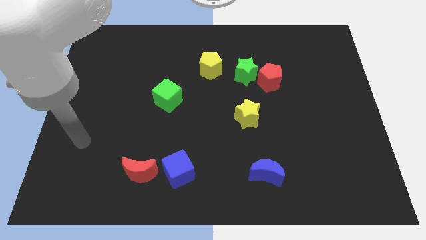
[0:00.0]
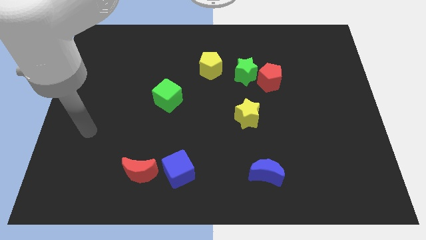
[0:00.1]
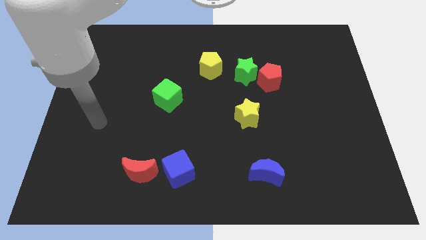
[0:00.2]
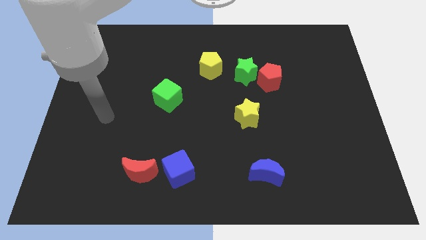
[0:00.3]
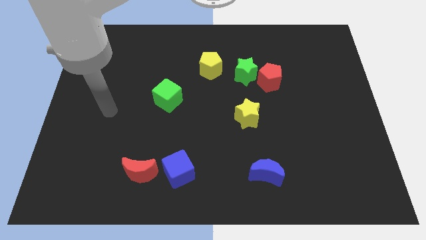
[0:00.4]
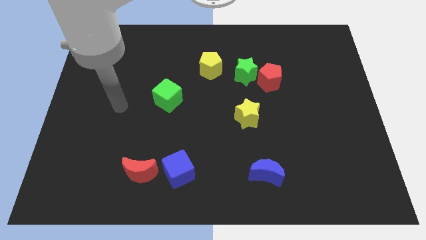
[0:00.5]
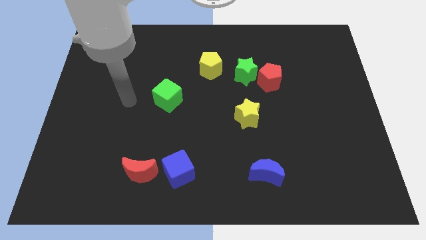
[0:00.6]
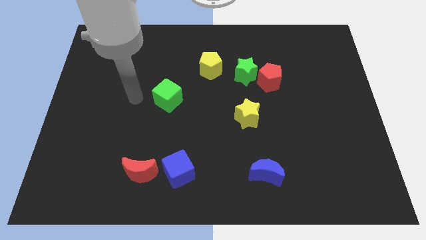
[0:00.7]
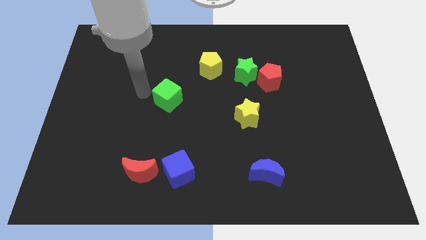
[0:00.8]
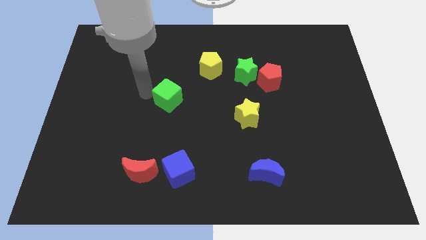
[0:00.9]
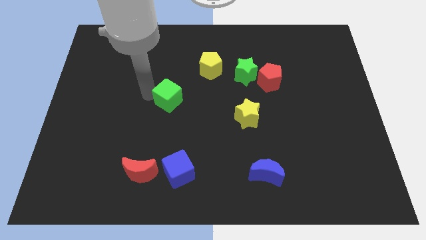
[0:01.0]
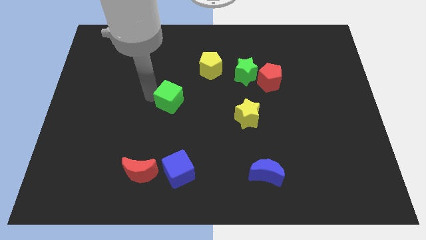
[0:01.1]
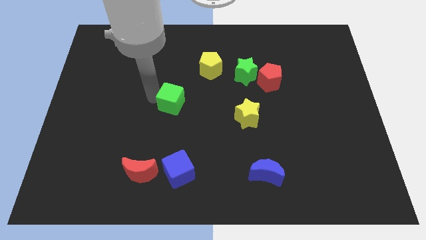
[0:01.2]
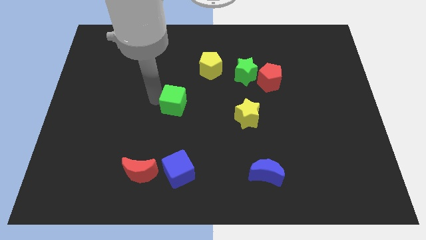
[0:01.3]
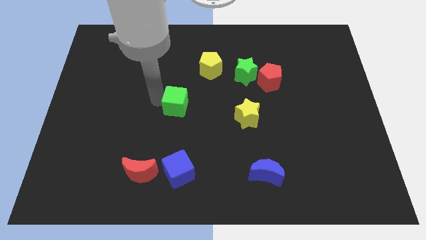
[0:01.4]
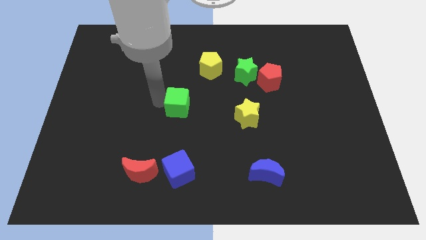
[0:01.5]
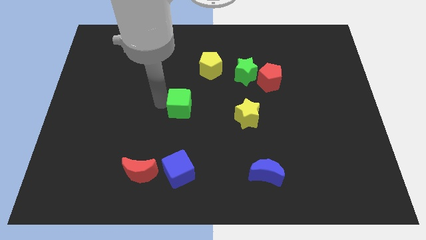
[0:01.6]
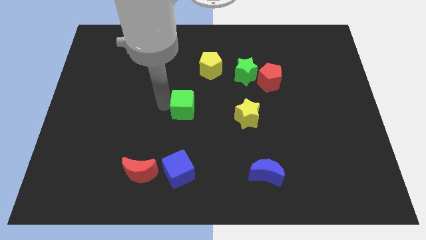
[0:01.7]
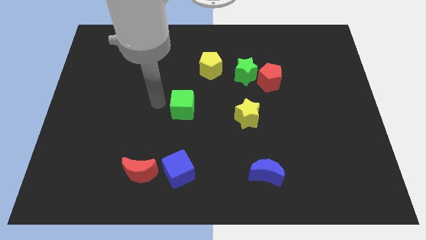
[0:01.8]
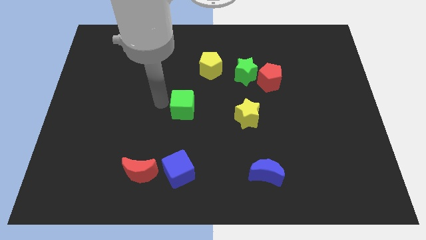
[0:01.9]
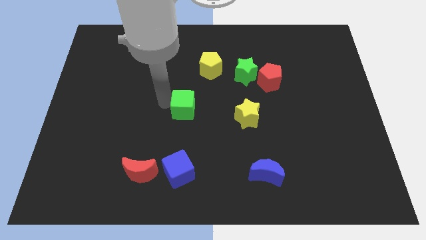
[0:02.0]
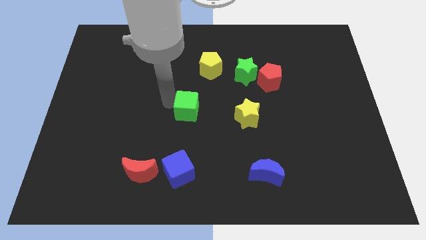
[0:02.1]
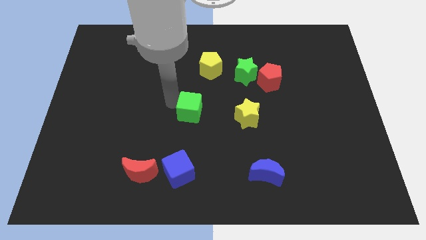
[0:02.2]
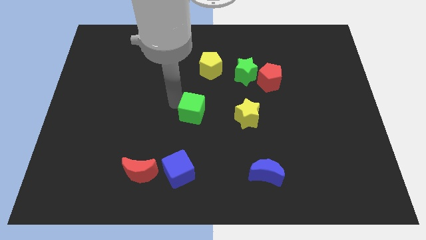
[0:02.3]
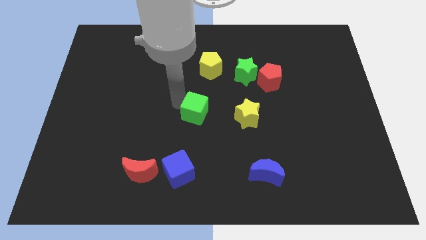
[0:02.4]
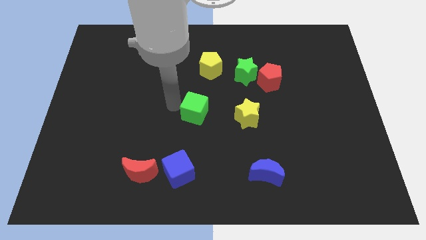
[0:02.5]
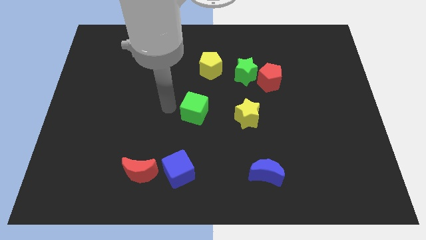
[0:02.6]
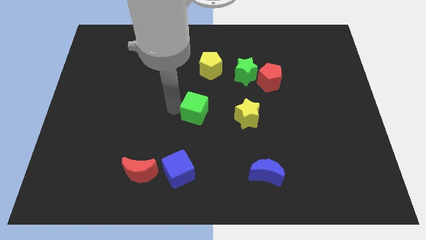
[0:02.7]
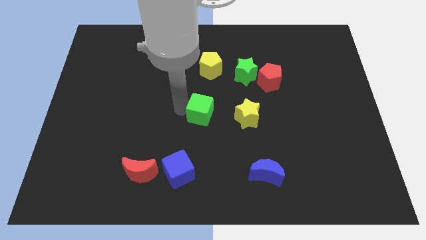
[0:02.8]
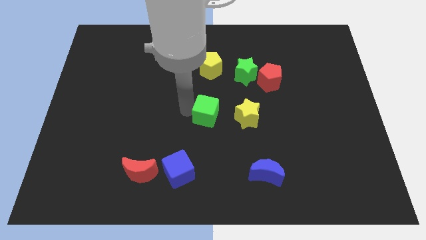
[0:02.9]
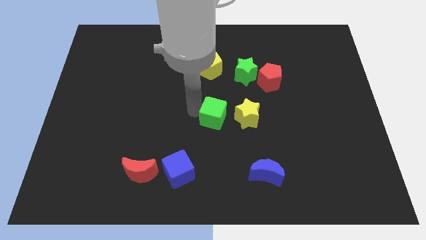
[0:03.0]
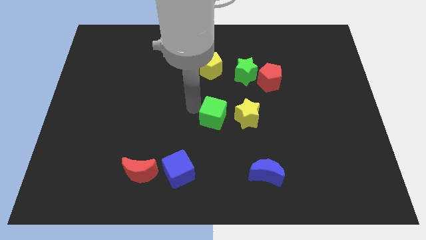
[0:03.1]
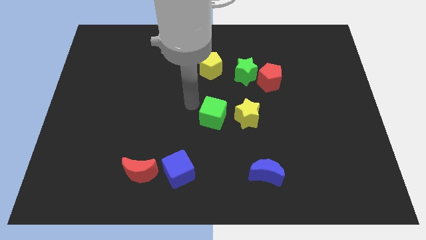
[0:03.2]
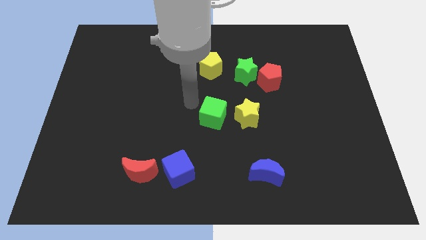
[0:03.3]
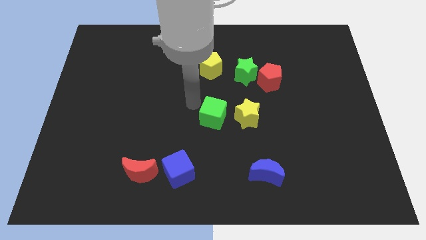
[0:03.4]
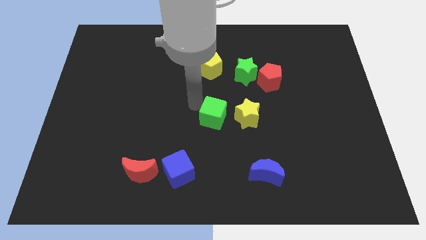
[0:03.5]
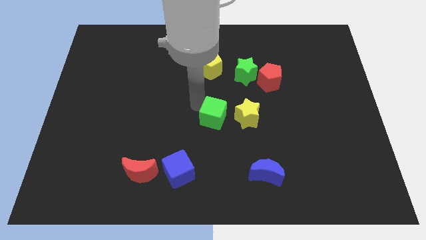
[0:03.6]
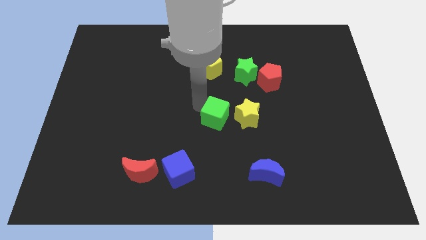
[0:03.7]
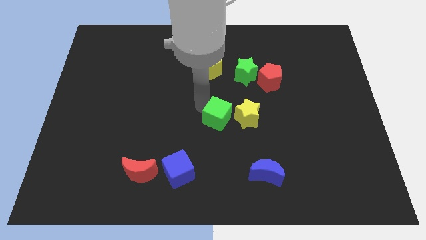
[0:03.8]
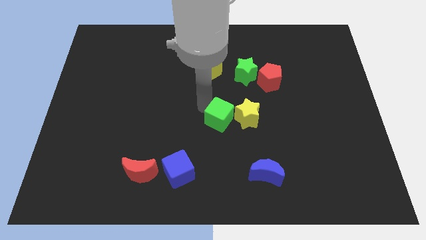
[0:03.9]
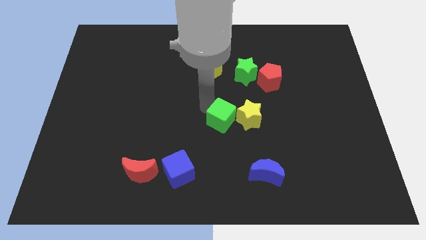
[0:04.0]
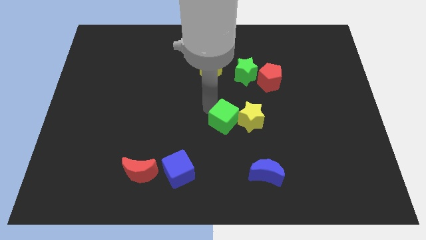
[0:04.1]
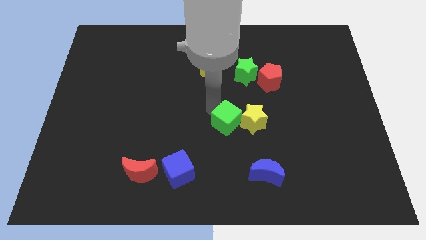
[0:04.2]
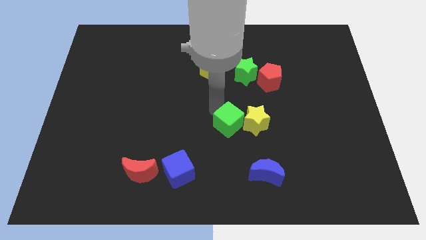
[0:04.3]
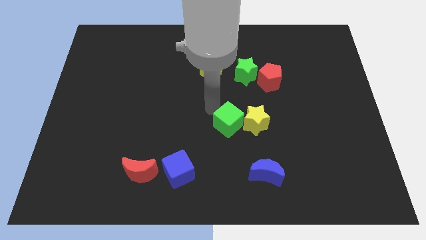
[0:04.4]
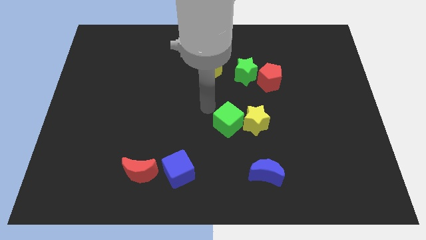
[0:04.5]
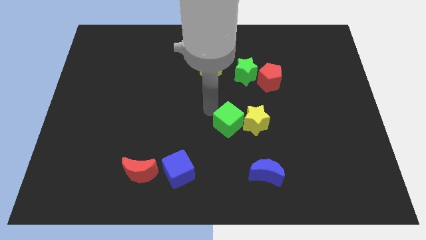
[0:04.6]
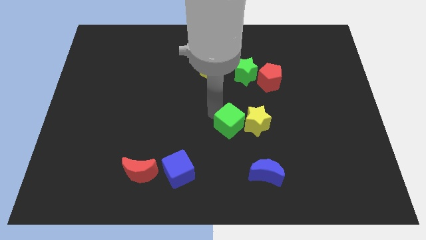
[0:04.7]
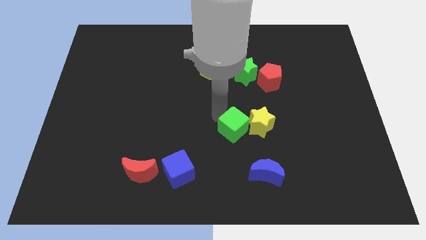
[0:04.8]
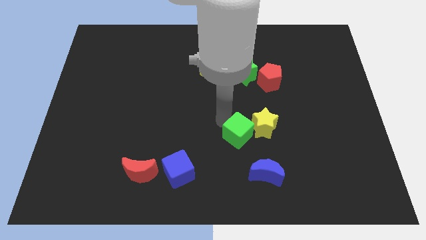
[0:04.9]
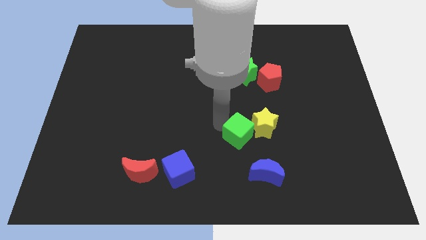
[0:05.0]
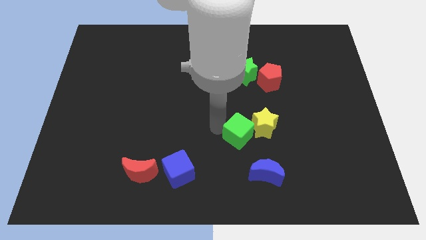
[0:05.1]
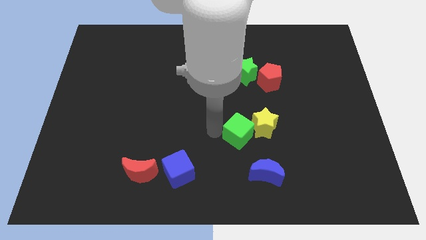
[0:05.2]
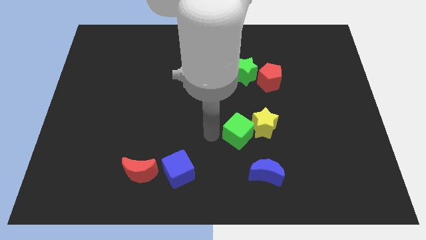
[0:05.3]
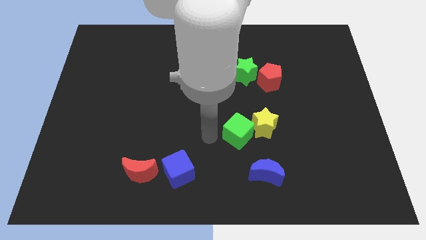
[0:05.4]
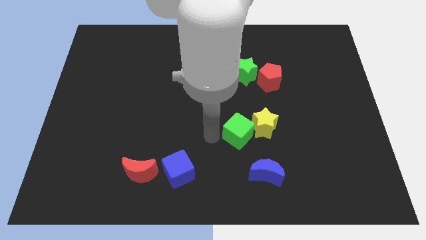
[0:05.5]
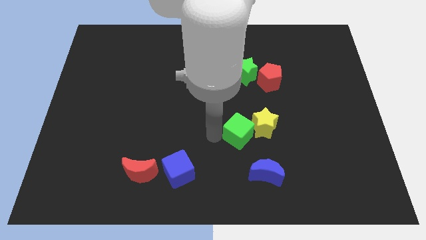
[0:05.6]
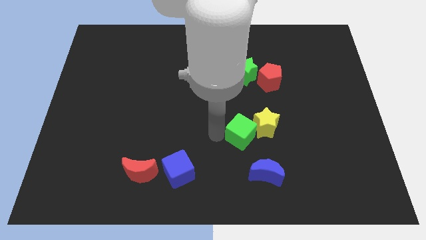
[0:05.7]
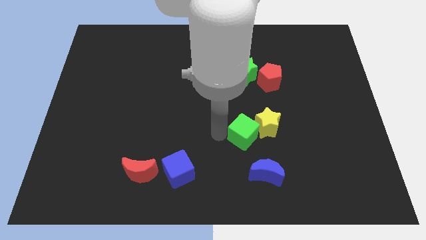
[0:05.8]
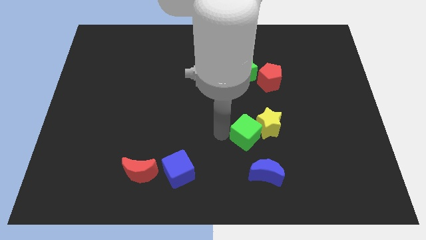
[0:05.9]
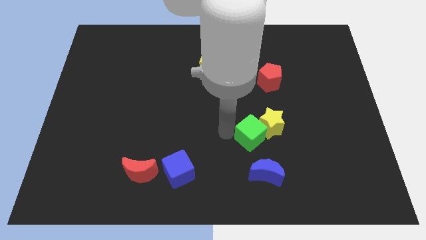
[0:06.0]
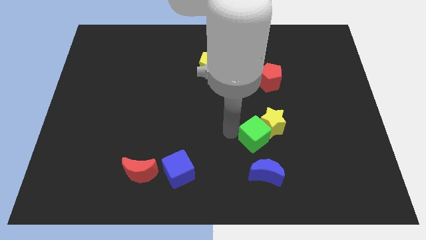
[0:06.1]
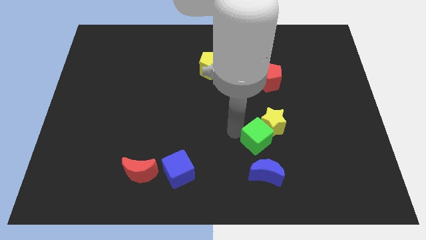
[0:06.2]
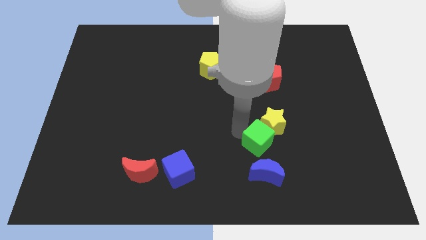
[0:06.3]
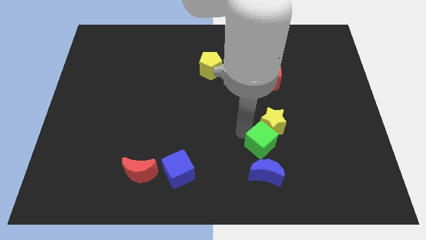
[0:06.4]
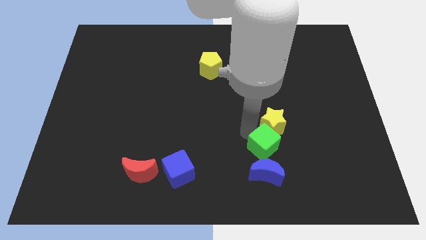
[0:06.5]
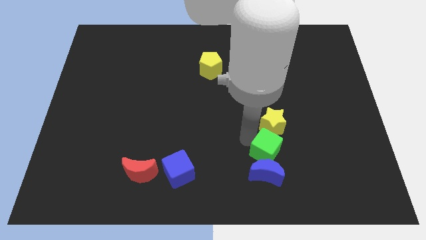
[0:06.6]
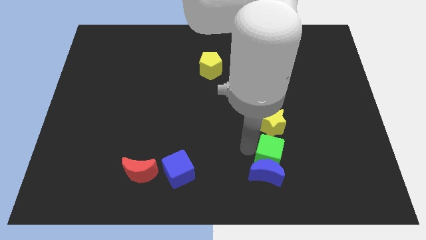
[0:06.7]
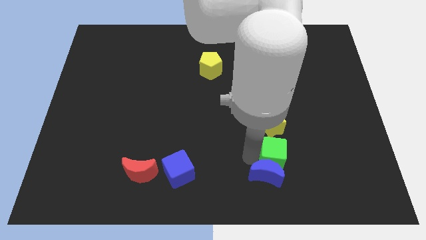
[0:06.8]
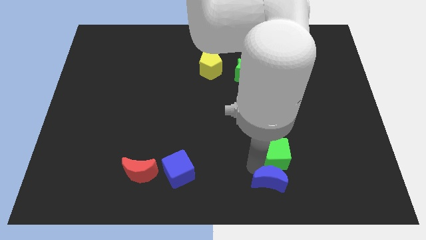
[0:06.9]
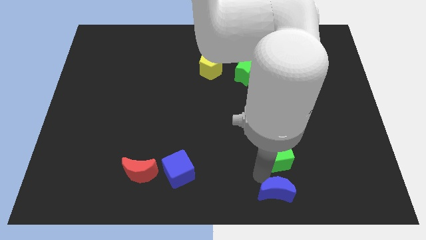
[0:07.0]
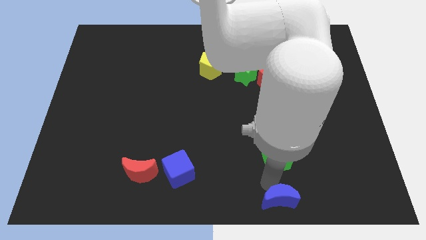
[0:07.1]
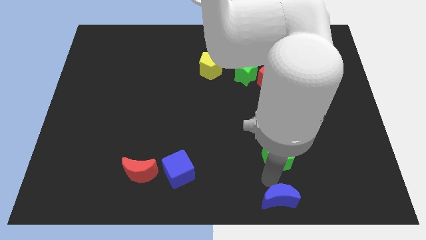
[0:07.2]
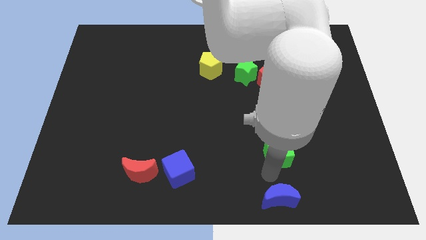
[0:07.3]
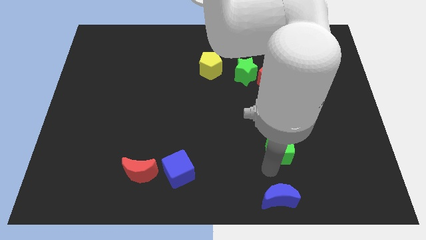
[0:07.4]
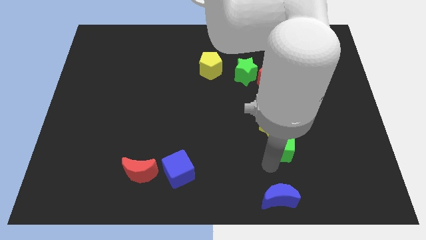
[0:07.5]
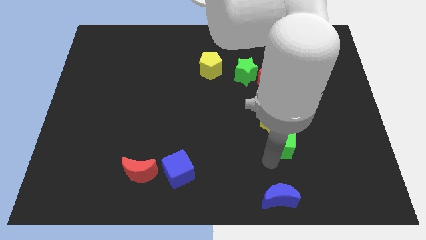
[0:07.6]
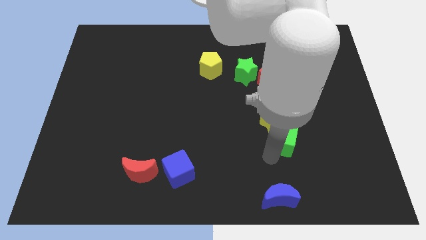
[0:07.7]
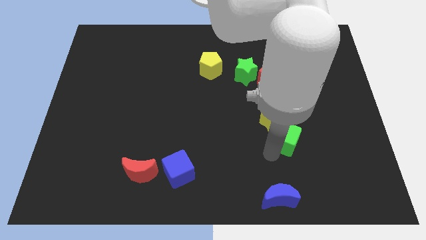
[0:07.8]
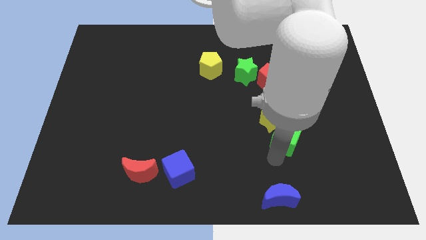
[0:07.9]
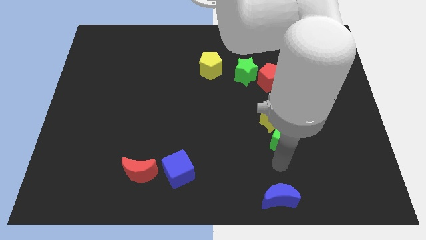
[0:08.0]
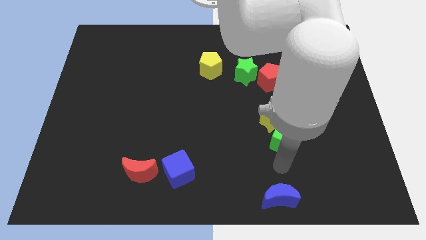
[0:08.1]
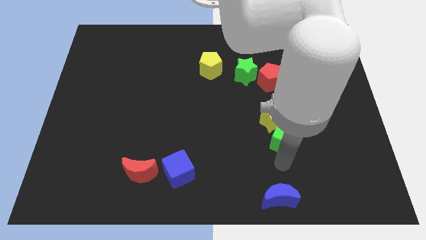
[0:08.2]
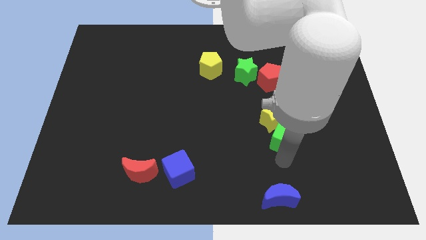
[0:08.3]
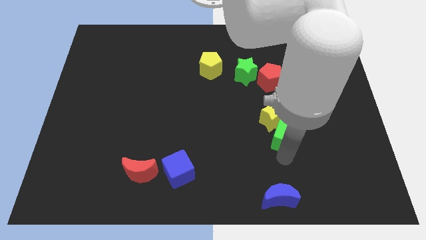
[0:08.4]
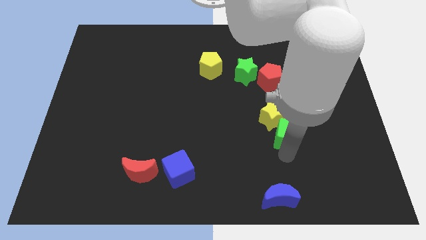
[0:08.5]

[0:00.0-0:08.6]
slide the green cube right
